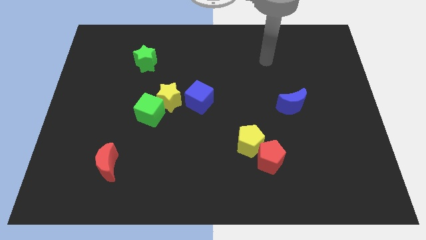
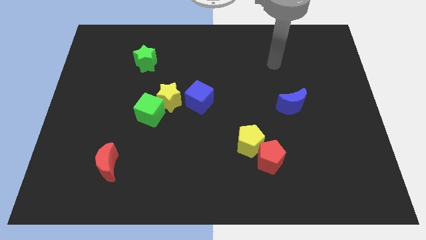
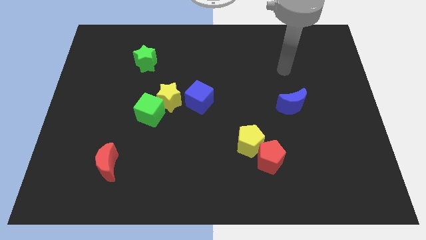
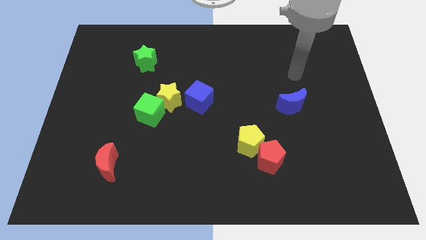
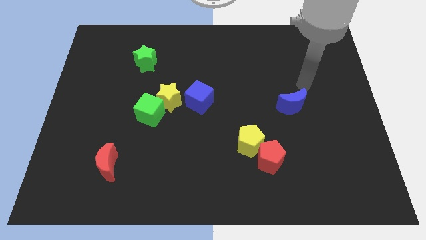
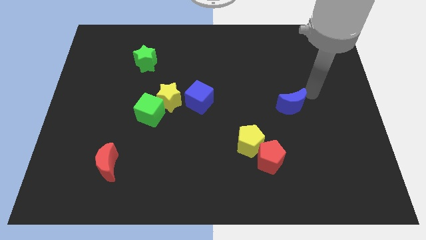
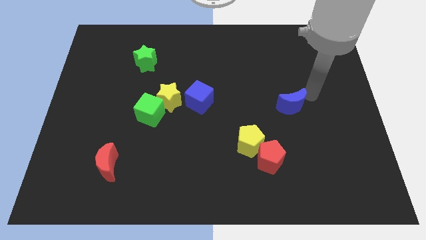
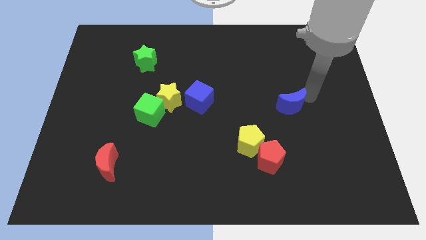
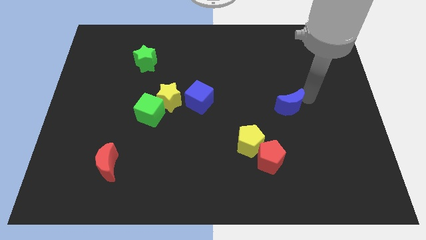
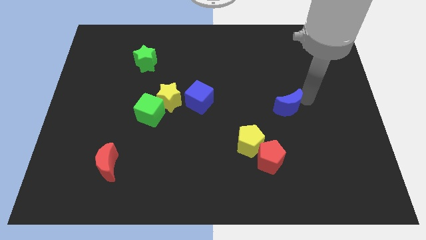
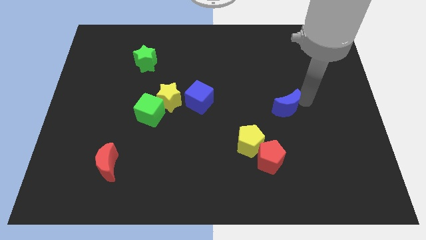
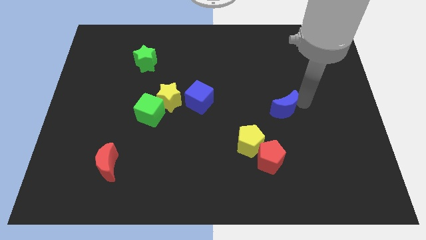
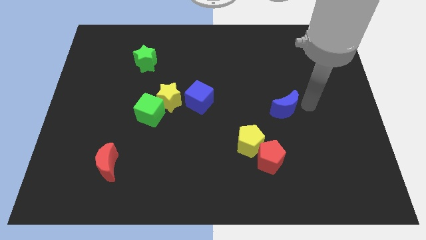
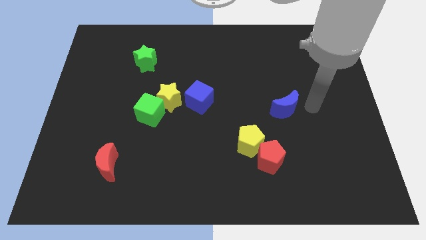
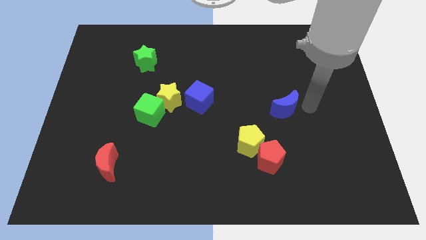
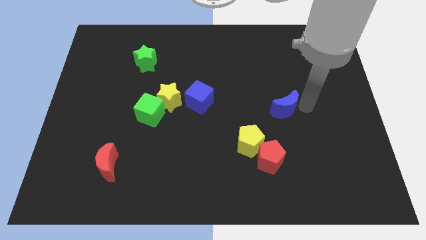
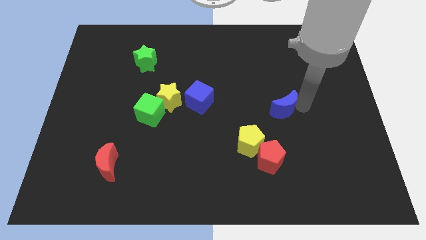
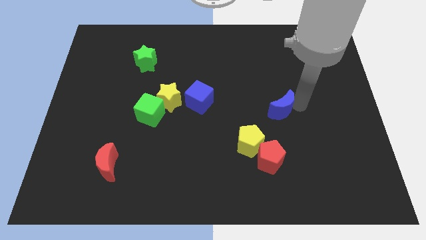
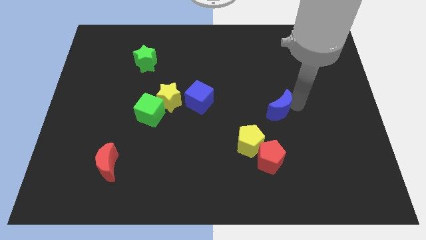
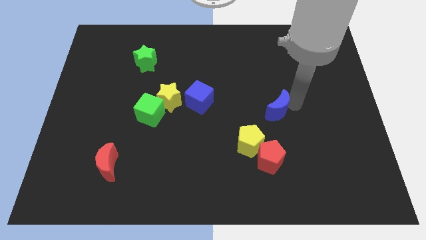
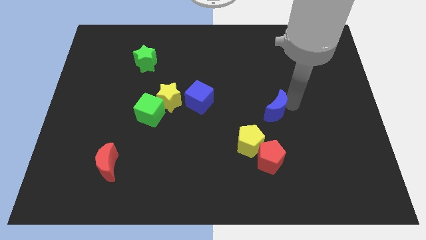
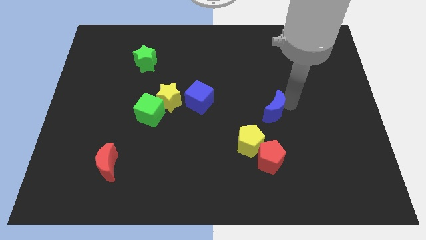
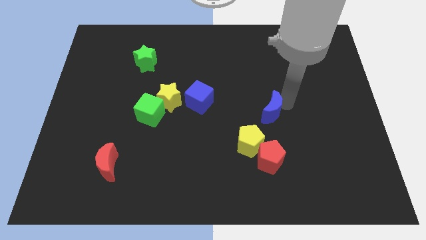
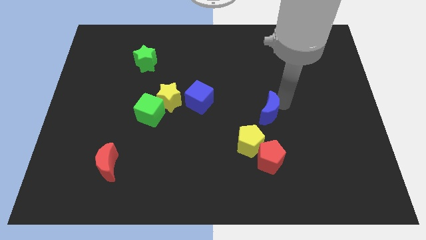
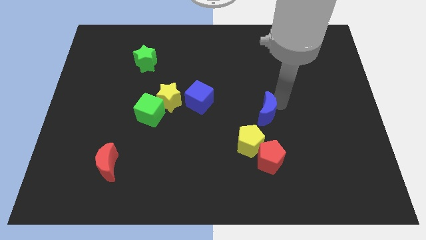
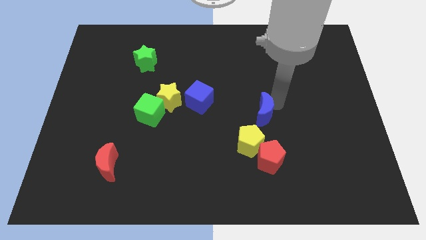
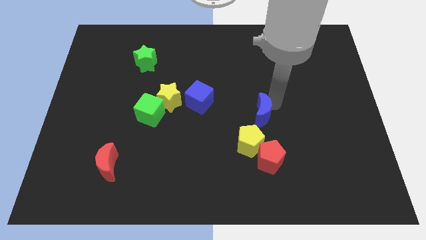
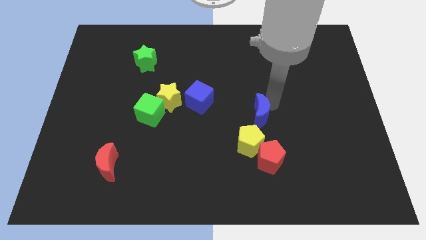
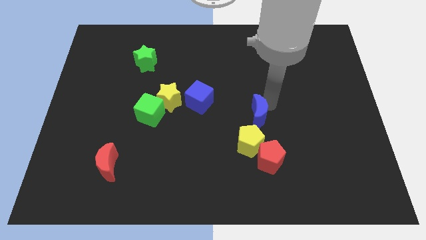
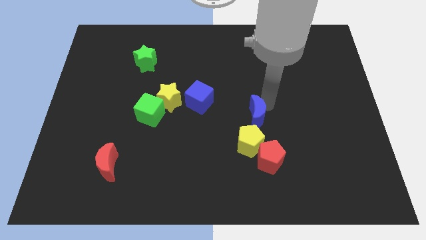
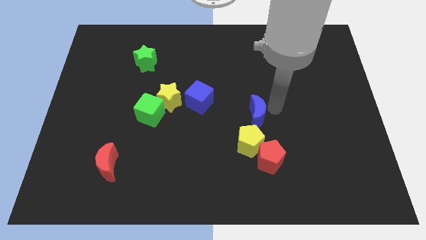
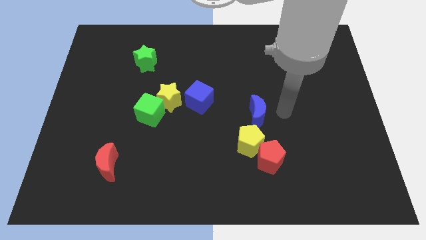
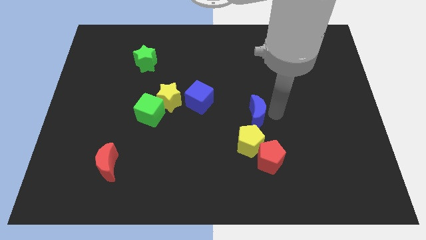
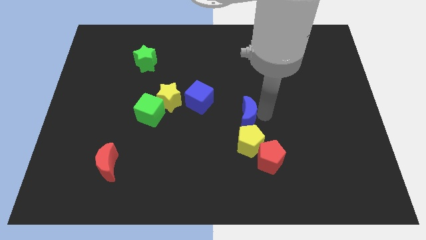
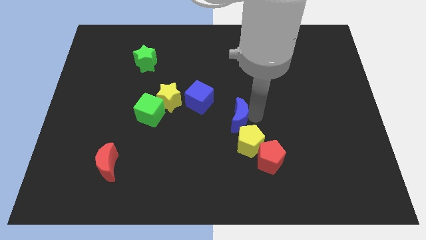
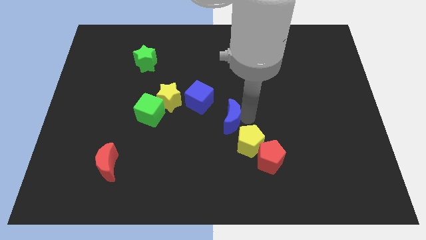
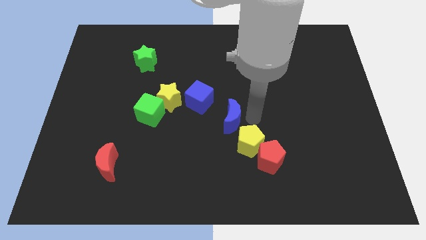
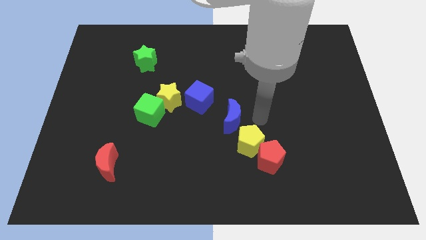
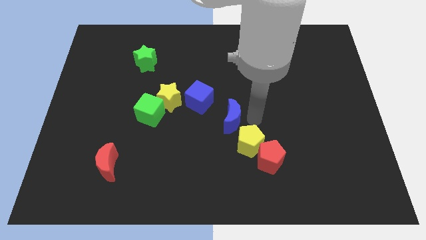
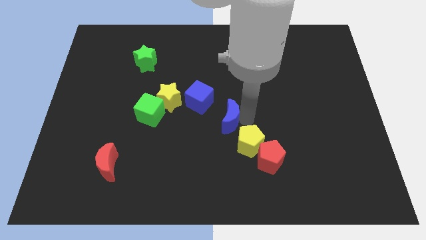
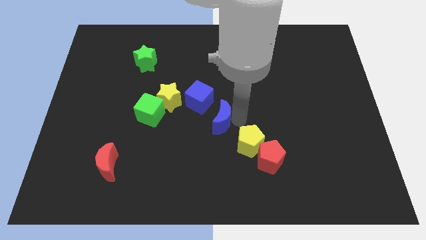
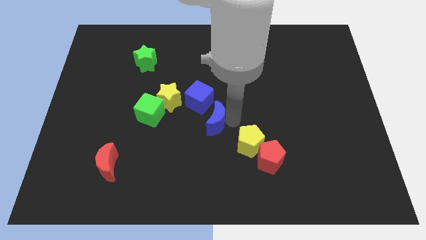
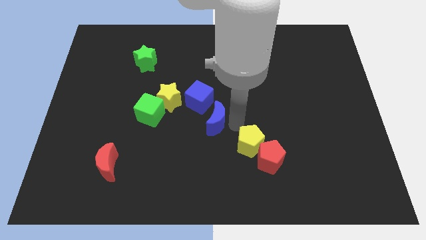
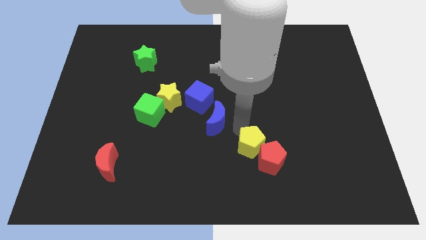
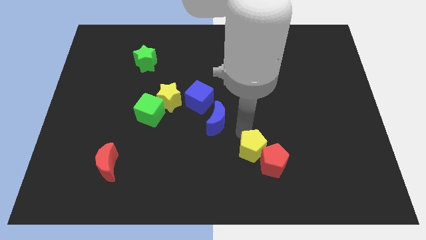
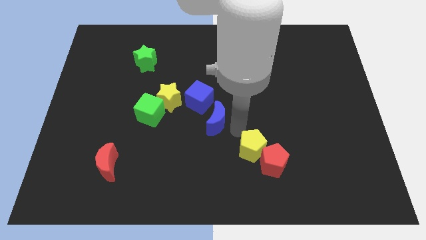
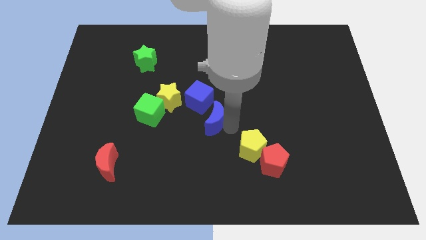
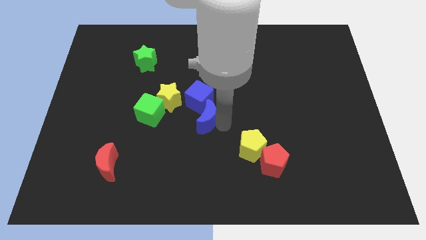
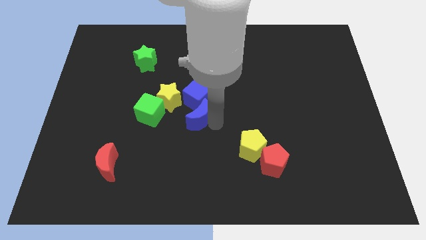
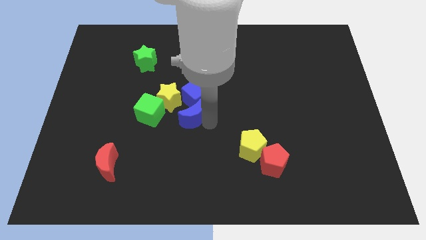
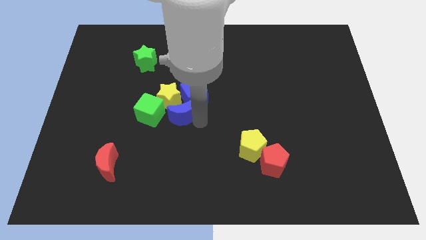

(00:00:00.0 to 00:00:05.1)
put the blue moon close to the yellow star

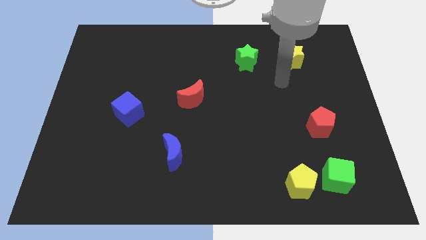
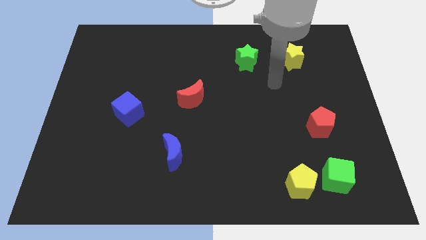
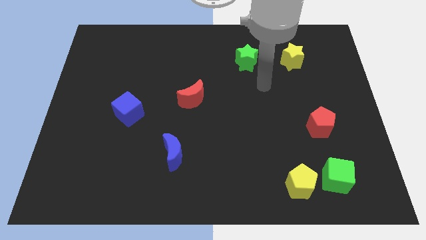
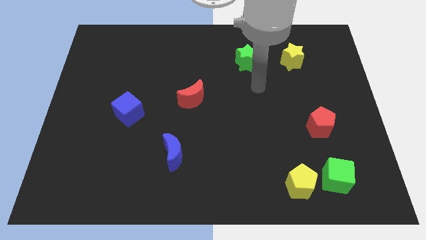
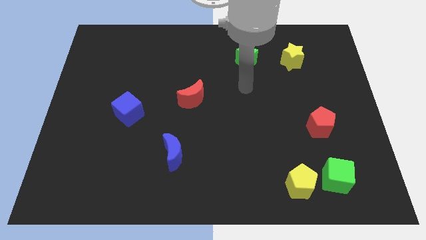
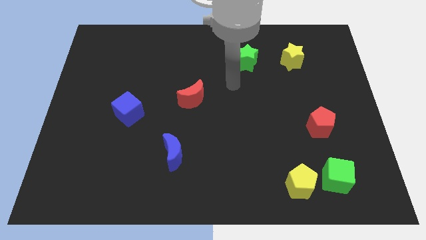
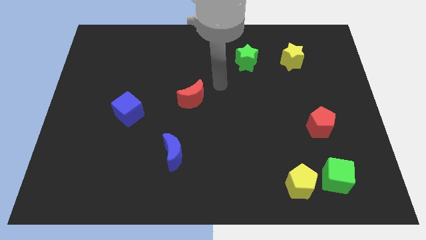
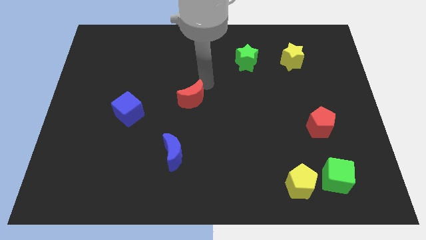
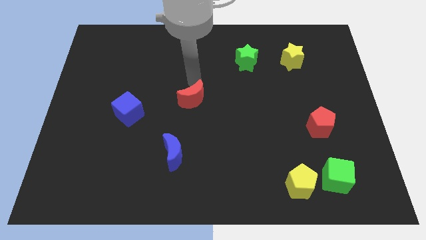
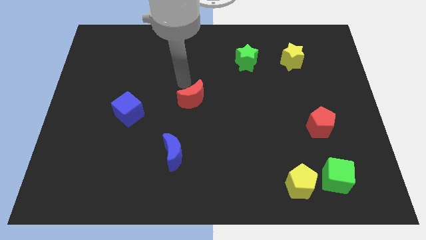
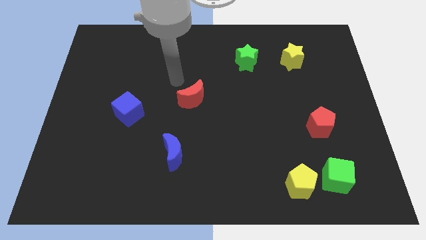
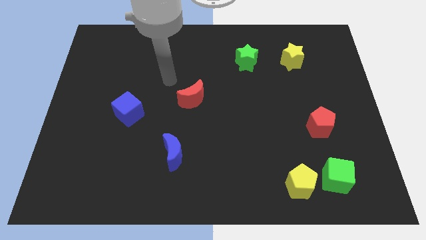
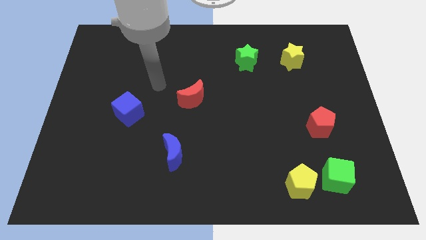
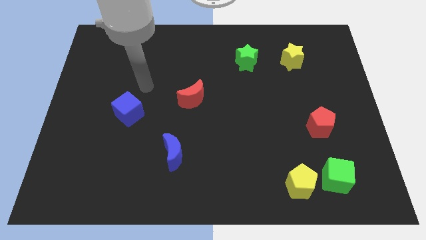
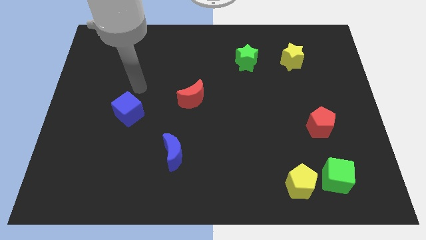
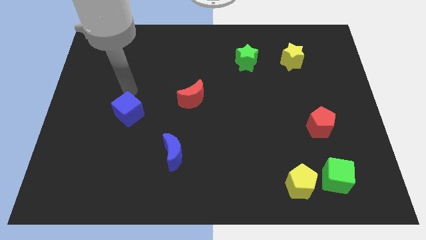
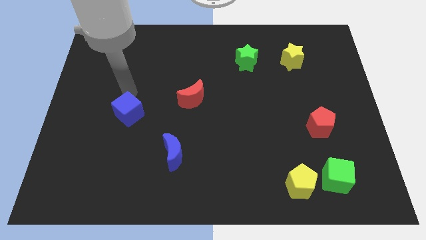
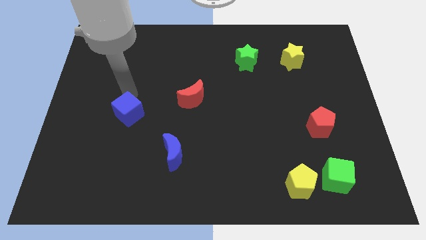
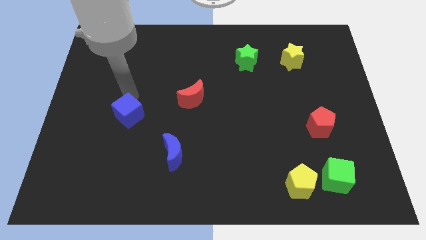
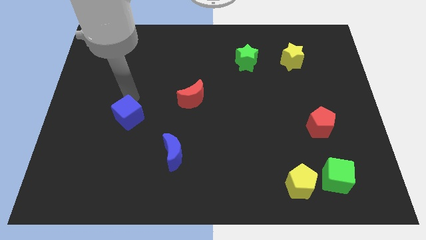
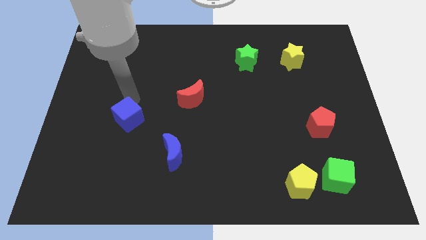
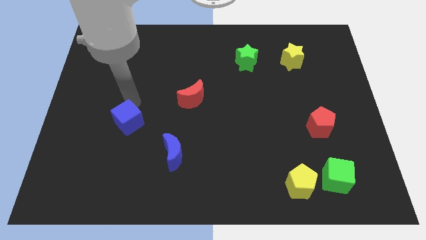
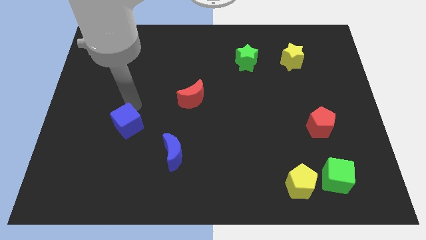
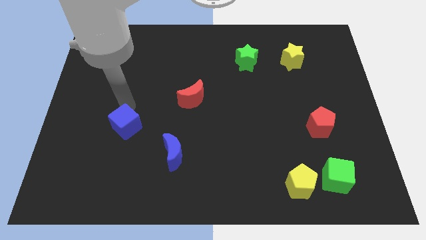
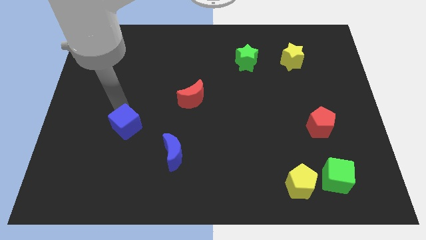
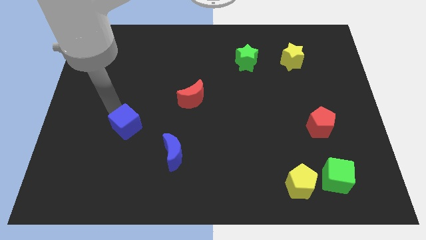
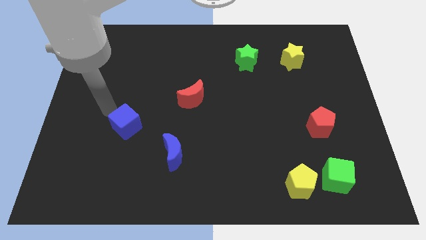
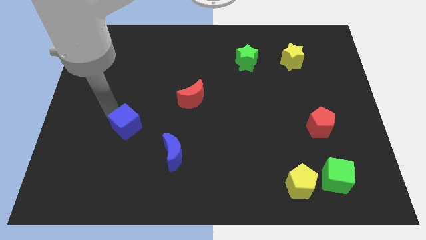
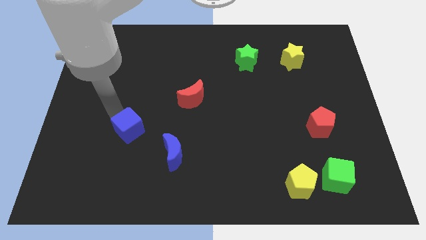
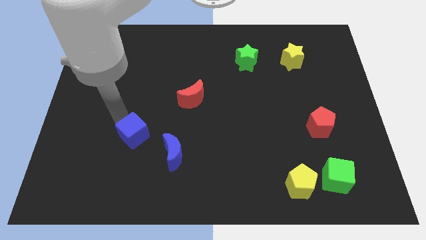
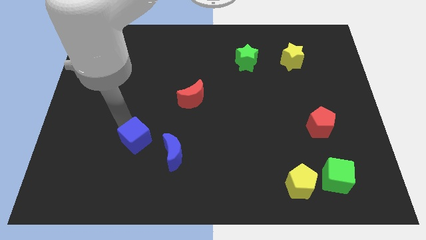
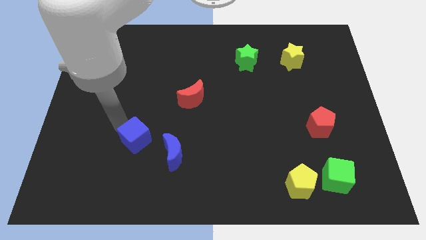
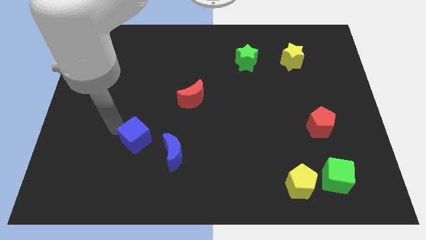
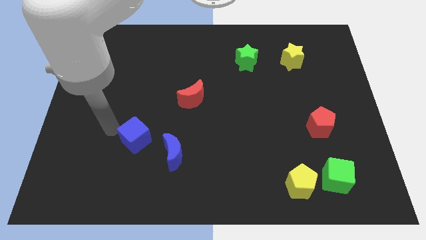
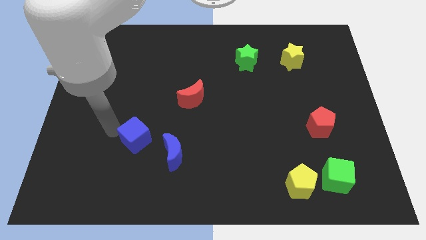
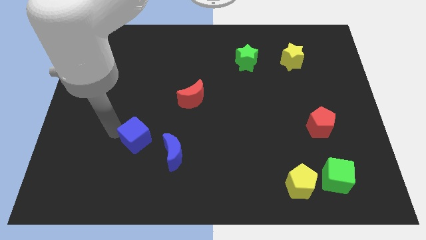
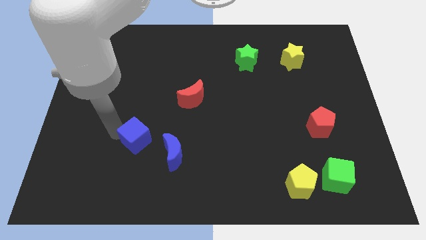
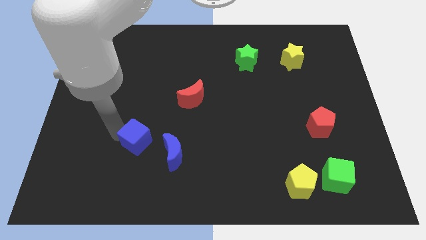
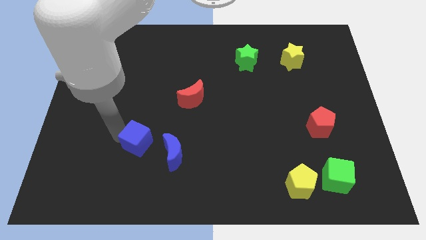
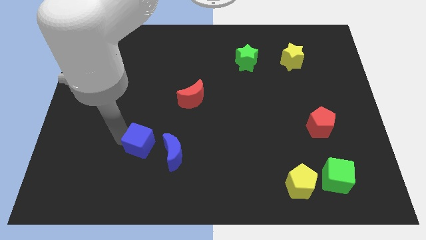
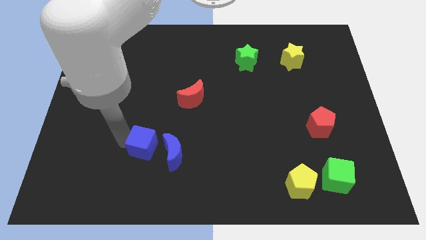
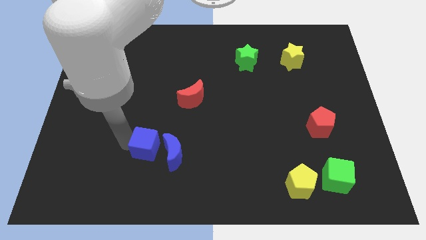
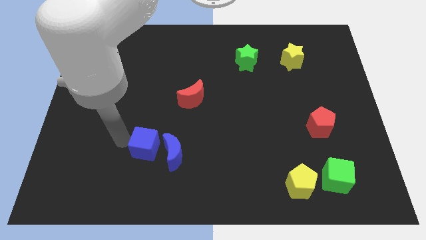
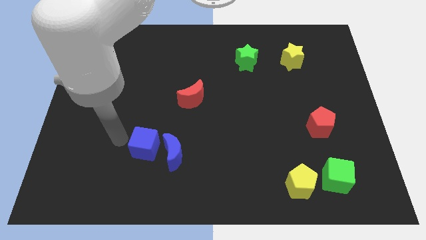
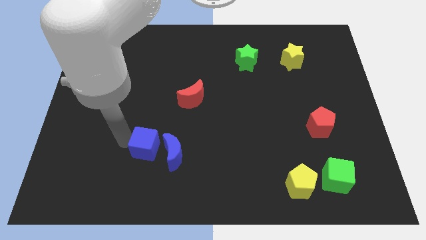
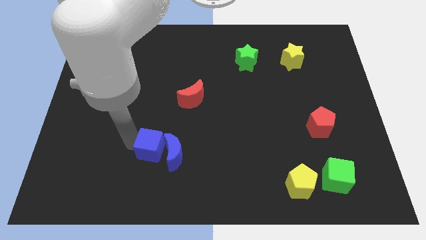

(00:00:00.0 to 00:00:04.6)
slide the blue cube next to the blue moon
